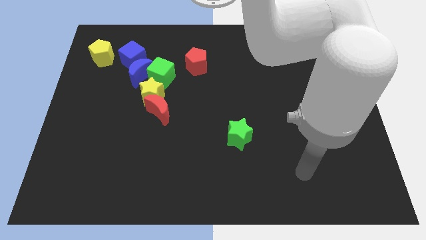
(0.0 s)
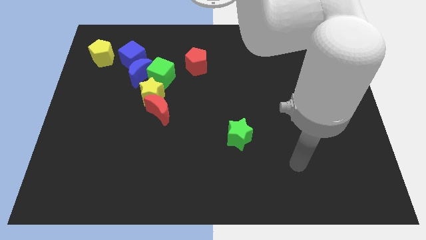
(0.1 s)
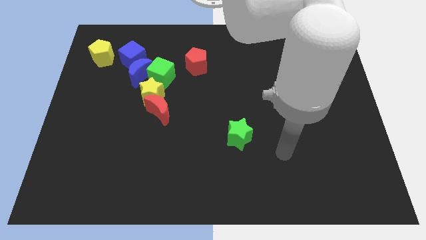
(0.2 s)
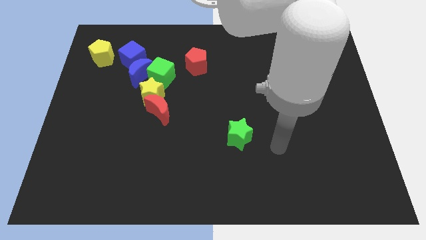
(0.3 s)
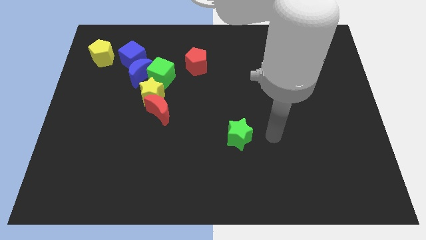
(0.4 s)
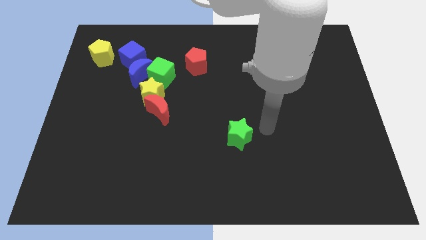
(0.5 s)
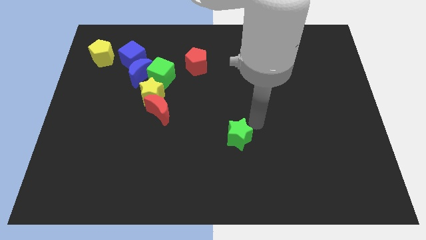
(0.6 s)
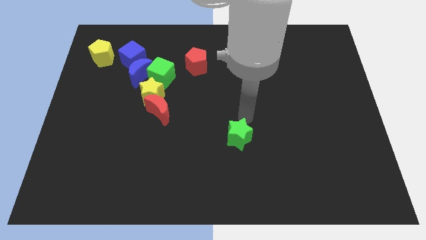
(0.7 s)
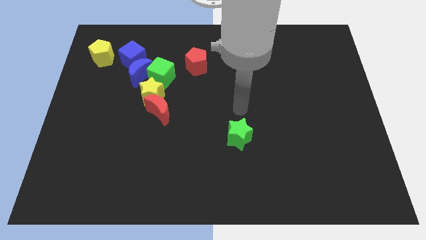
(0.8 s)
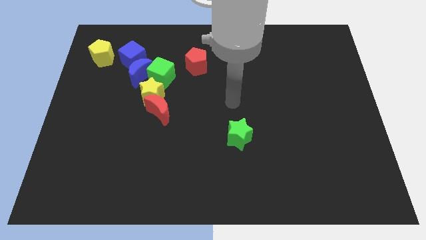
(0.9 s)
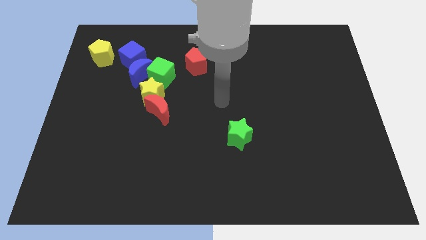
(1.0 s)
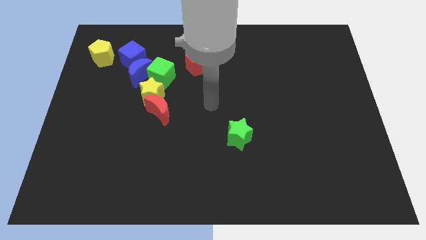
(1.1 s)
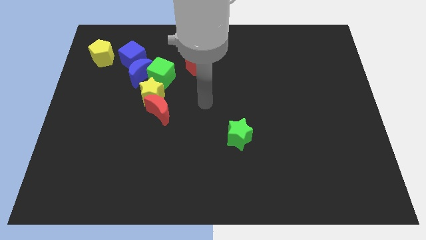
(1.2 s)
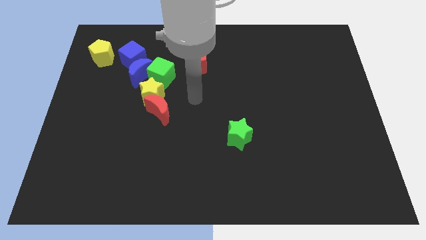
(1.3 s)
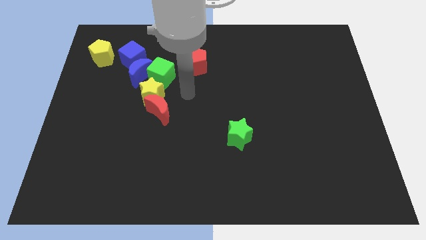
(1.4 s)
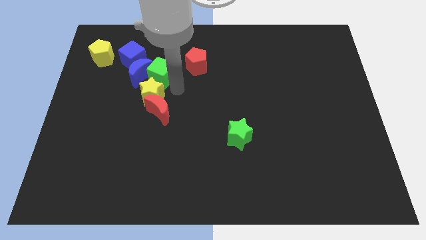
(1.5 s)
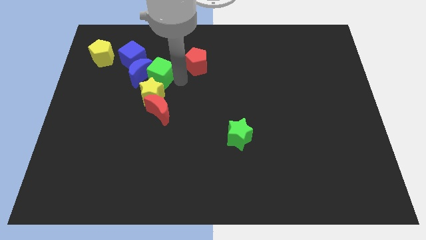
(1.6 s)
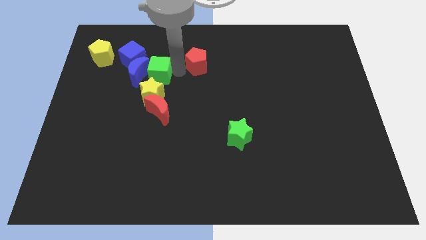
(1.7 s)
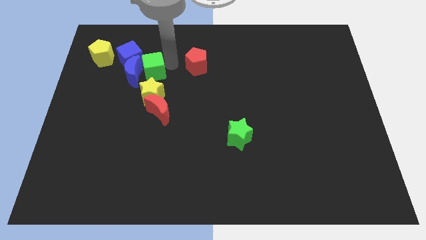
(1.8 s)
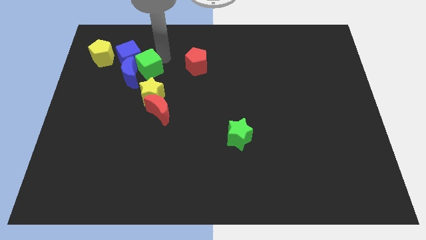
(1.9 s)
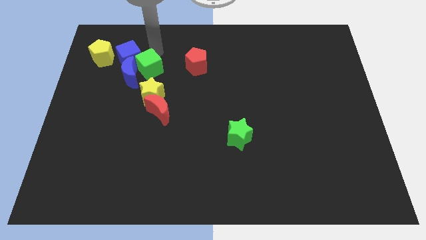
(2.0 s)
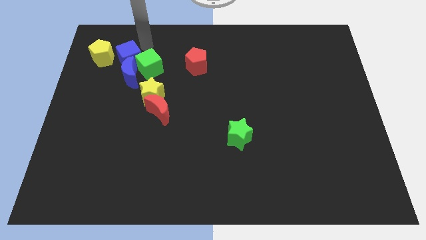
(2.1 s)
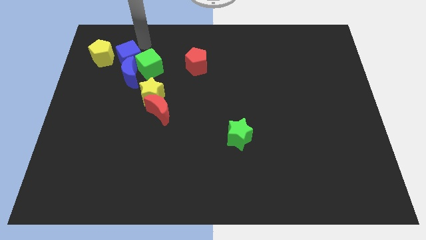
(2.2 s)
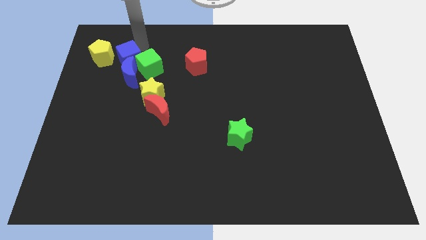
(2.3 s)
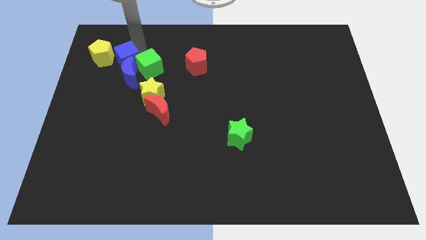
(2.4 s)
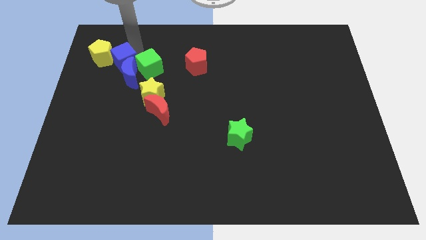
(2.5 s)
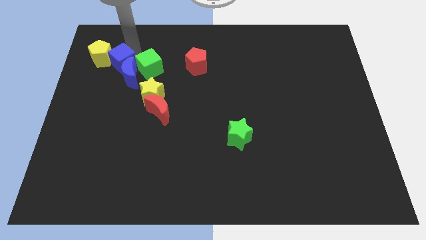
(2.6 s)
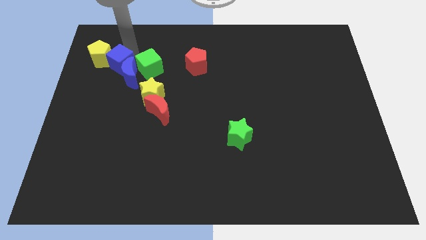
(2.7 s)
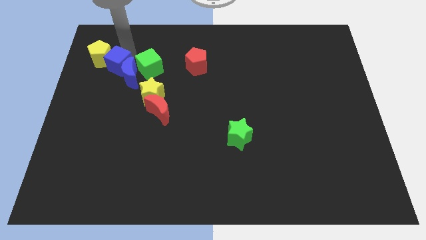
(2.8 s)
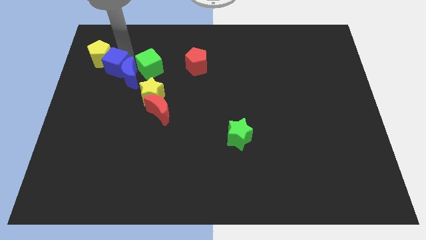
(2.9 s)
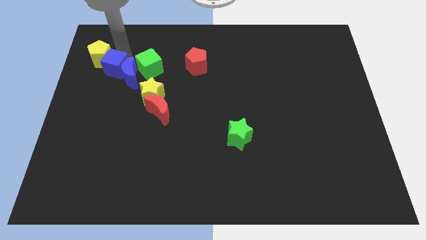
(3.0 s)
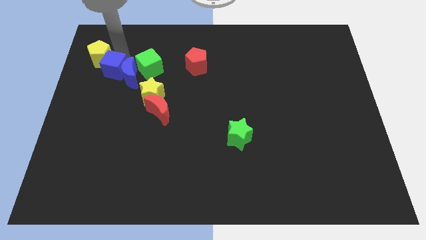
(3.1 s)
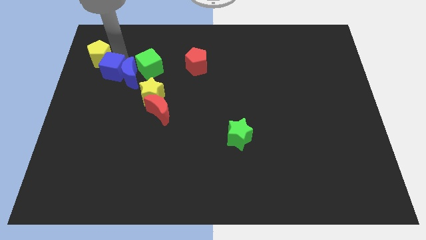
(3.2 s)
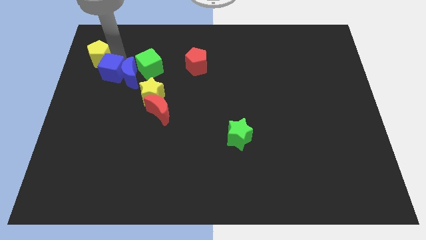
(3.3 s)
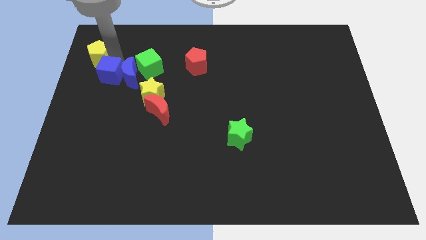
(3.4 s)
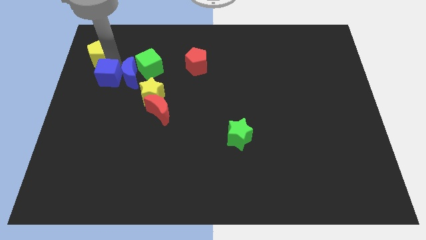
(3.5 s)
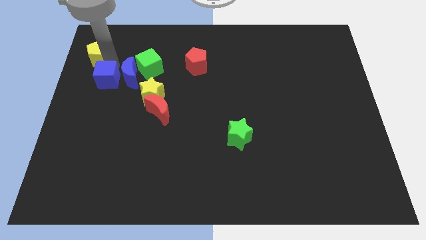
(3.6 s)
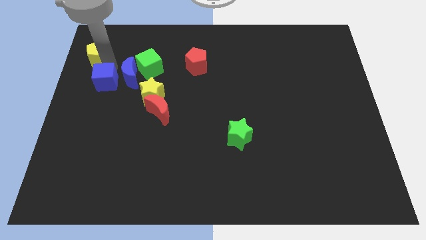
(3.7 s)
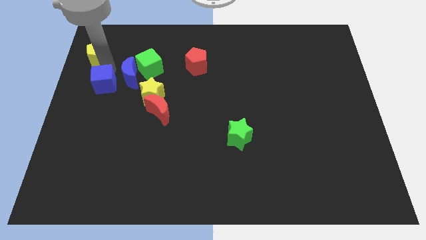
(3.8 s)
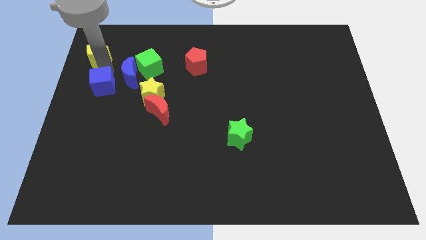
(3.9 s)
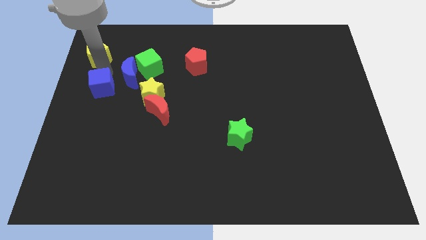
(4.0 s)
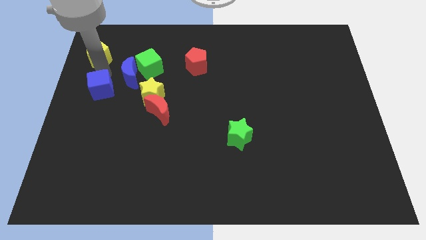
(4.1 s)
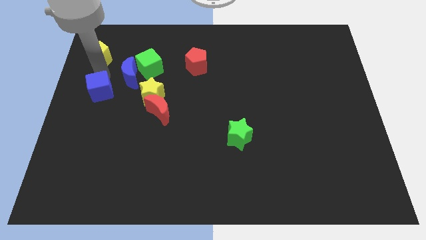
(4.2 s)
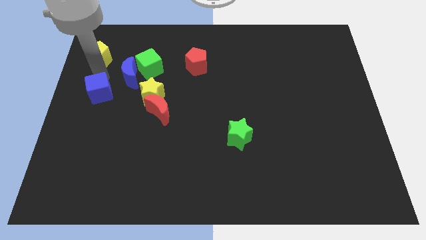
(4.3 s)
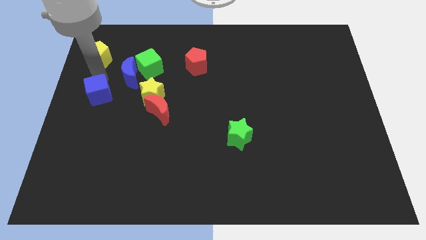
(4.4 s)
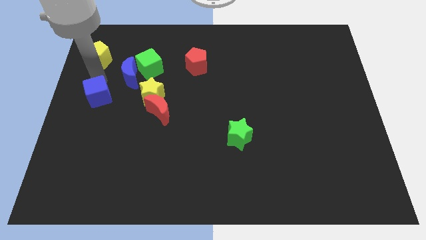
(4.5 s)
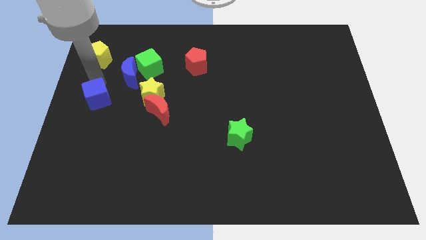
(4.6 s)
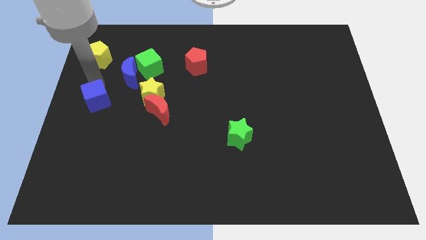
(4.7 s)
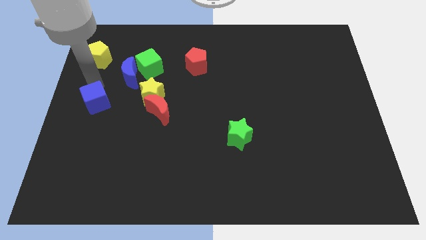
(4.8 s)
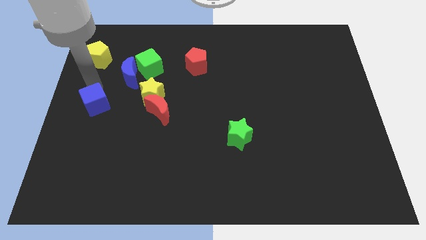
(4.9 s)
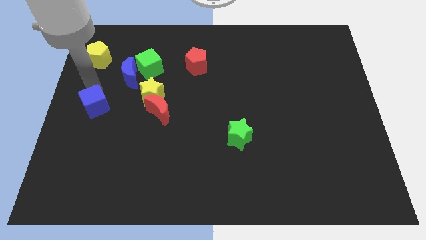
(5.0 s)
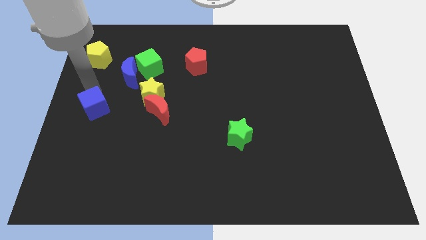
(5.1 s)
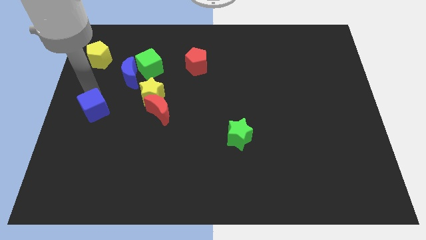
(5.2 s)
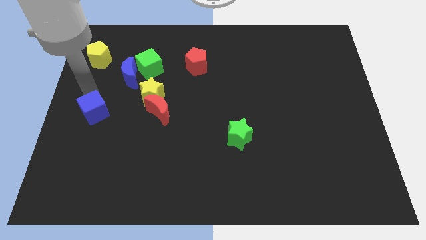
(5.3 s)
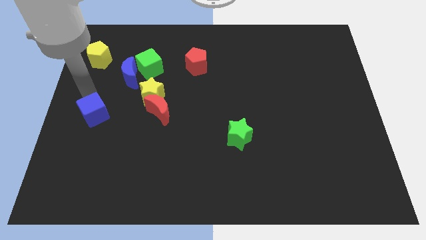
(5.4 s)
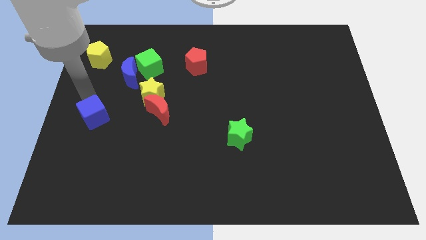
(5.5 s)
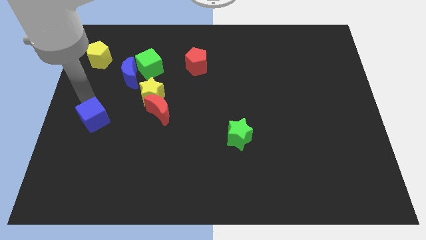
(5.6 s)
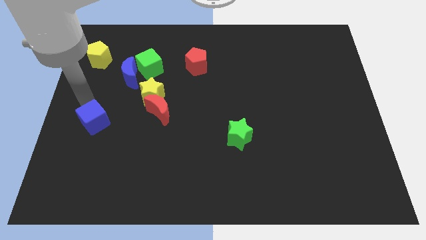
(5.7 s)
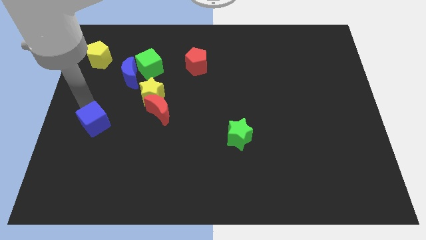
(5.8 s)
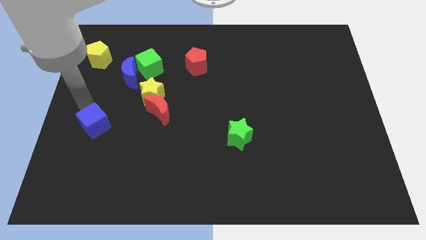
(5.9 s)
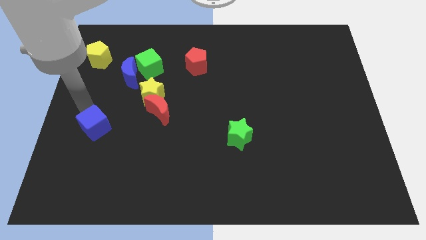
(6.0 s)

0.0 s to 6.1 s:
move the blue cube down

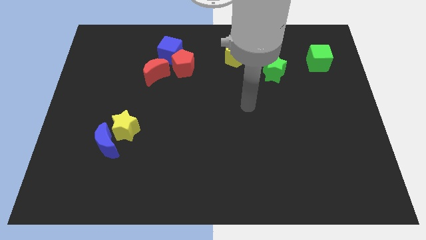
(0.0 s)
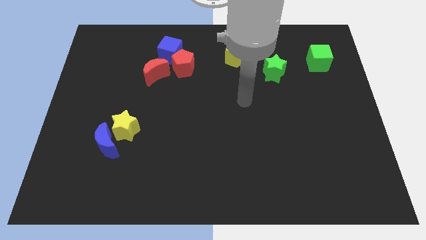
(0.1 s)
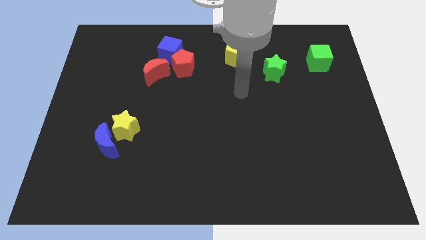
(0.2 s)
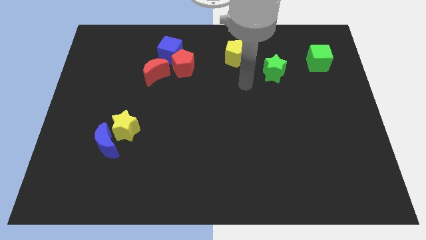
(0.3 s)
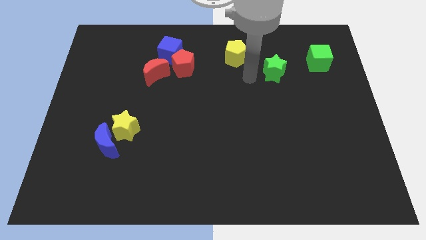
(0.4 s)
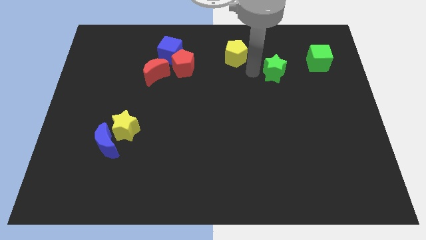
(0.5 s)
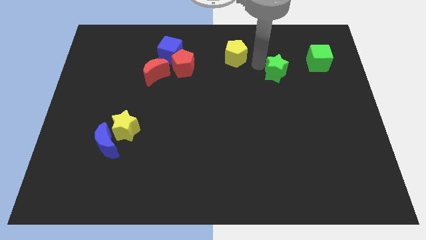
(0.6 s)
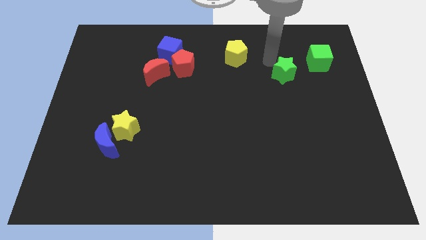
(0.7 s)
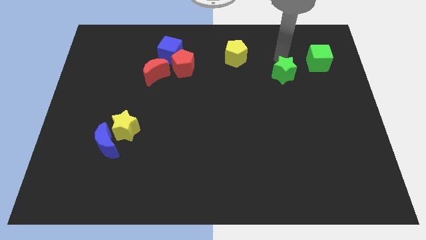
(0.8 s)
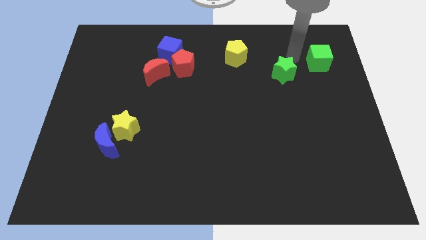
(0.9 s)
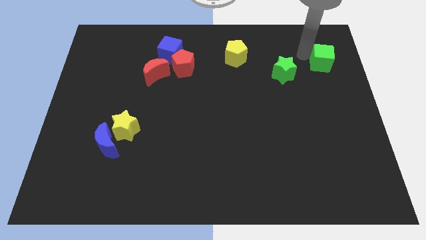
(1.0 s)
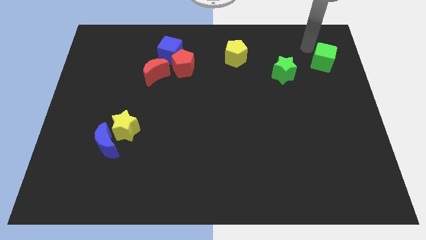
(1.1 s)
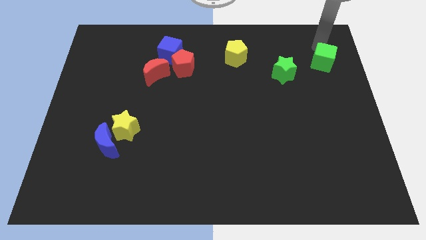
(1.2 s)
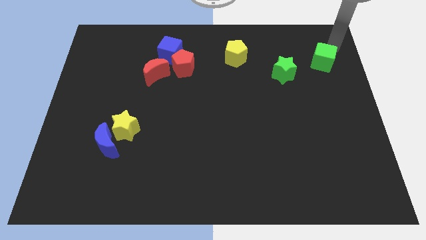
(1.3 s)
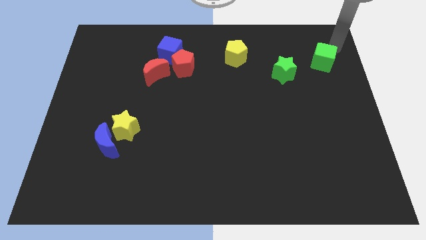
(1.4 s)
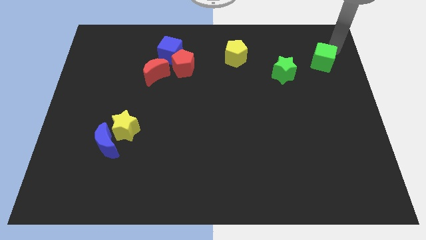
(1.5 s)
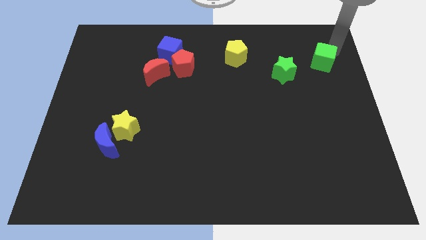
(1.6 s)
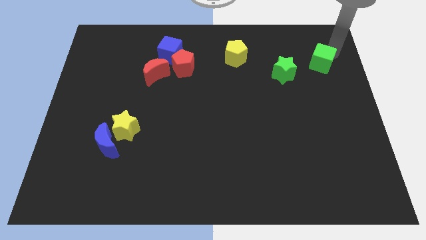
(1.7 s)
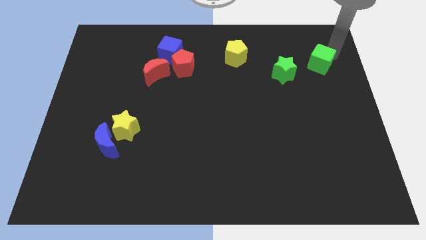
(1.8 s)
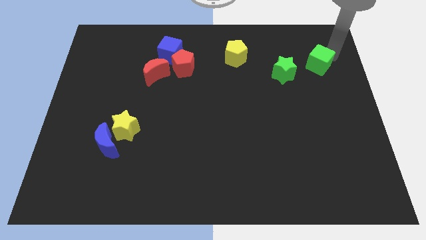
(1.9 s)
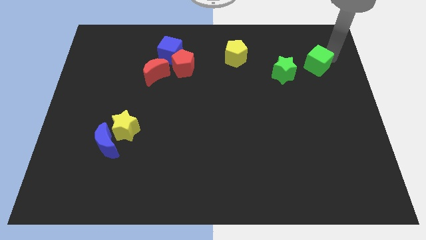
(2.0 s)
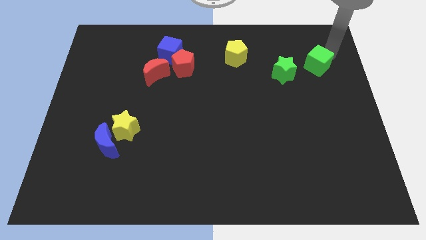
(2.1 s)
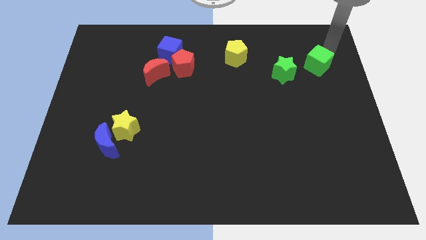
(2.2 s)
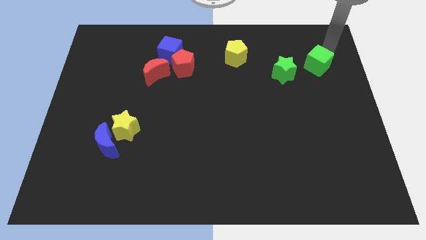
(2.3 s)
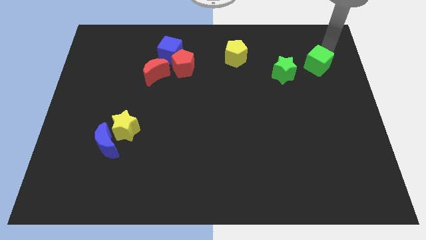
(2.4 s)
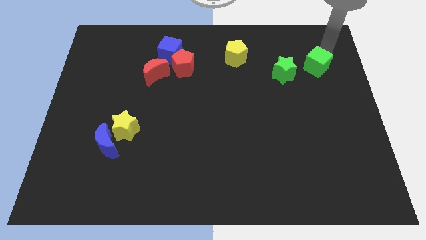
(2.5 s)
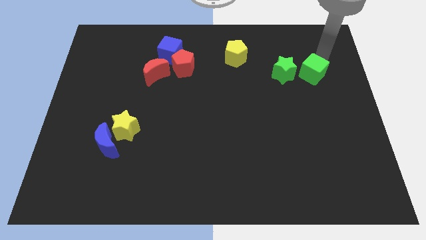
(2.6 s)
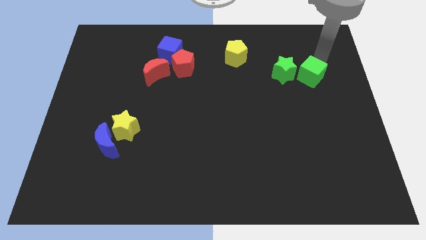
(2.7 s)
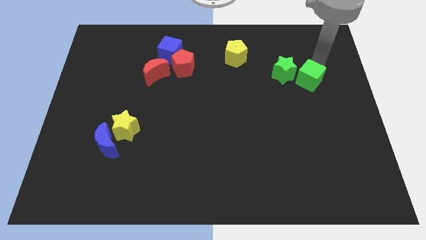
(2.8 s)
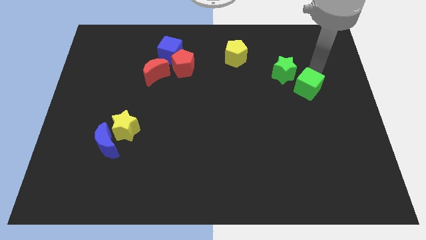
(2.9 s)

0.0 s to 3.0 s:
move the green cube a little bit diagonally downwards and to the left
